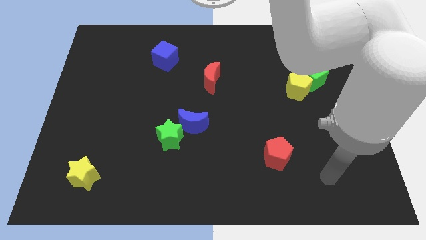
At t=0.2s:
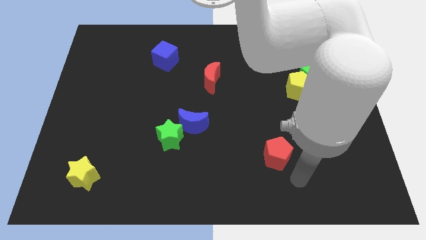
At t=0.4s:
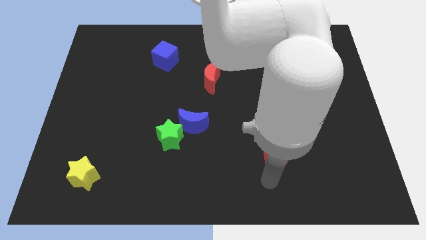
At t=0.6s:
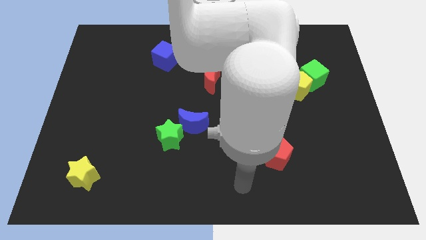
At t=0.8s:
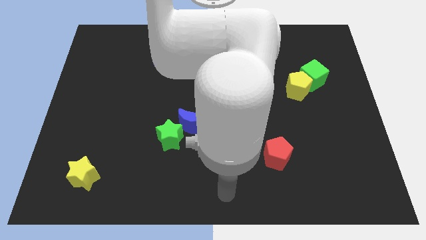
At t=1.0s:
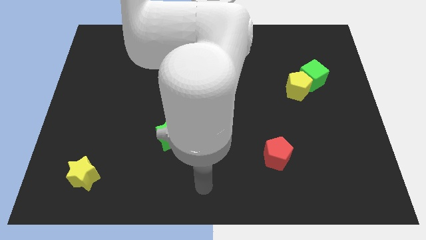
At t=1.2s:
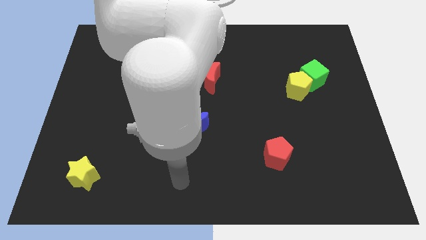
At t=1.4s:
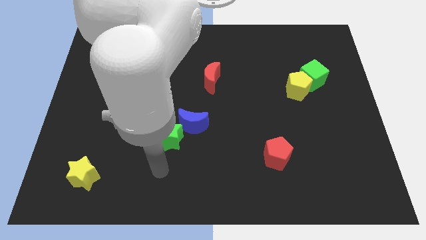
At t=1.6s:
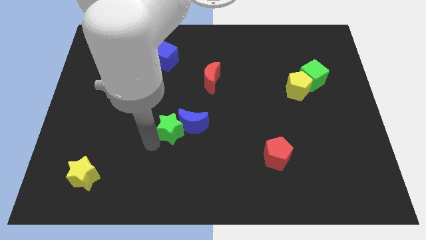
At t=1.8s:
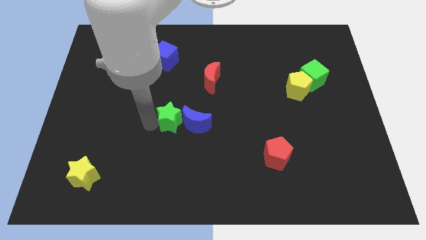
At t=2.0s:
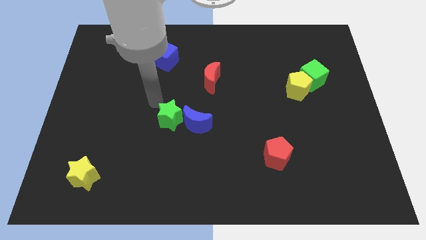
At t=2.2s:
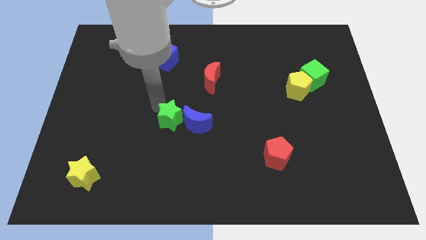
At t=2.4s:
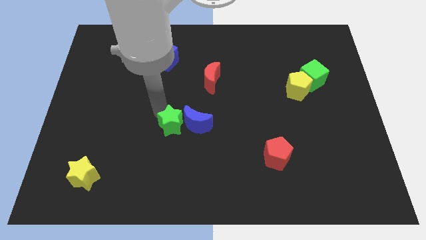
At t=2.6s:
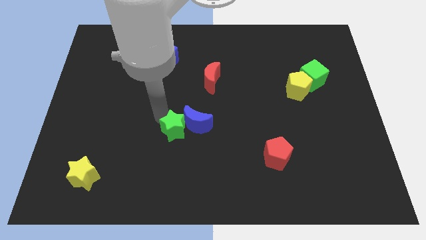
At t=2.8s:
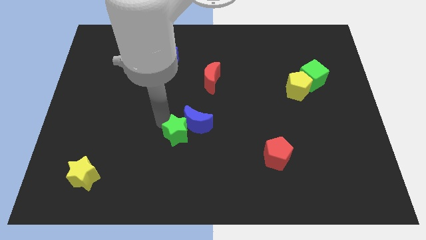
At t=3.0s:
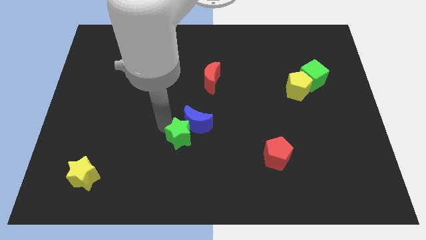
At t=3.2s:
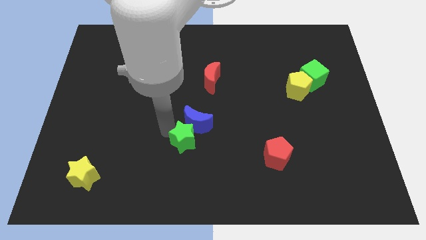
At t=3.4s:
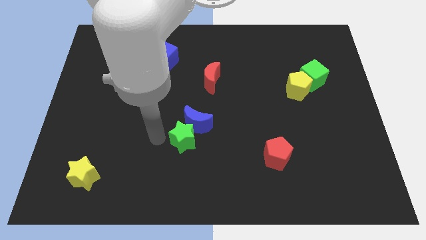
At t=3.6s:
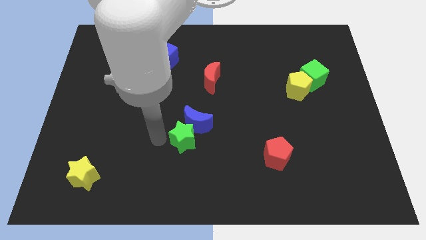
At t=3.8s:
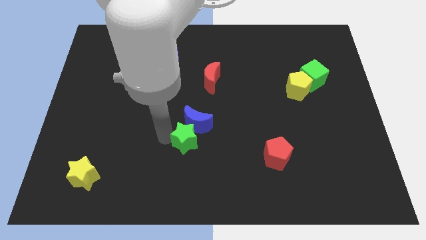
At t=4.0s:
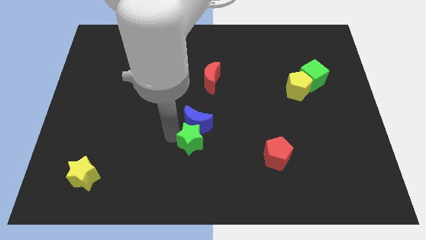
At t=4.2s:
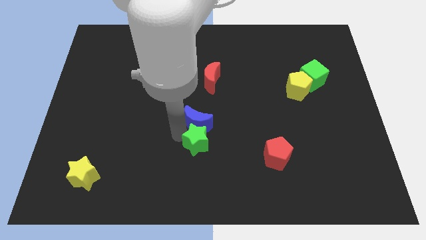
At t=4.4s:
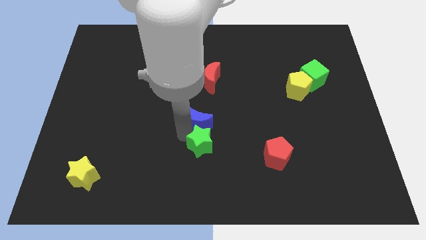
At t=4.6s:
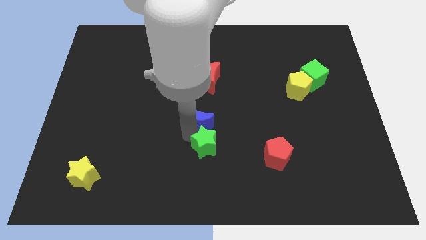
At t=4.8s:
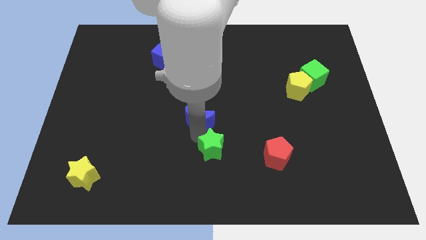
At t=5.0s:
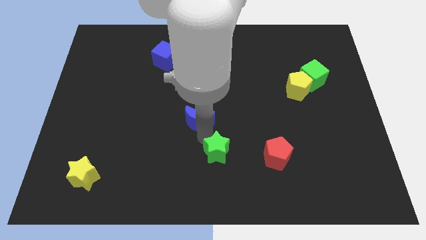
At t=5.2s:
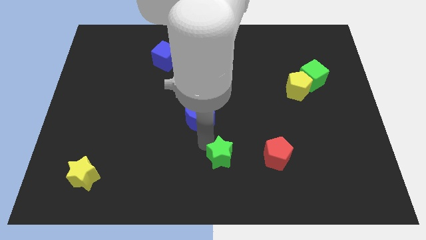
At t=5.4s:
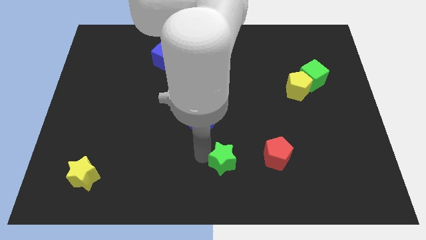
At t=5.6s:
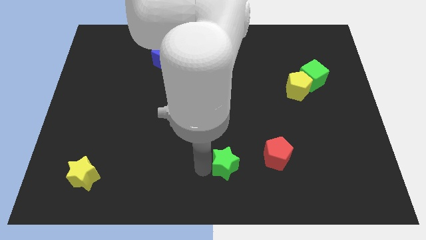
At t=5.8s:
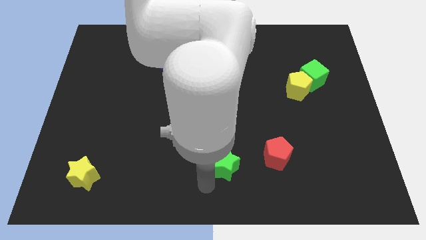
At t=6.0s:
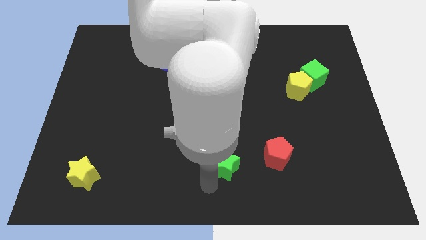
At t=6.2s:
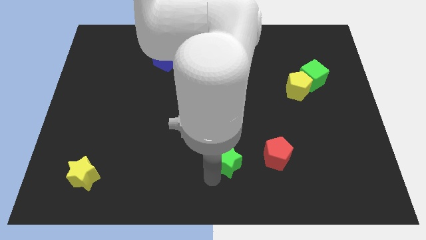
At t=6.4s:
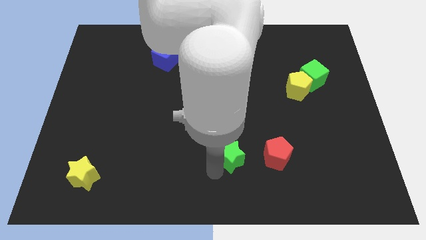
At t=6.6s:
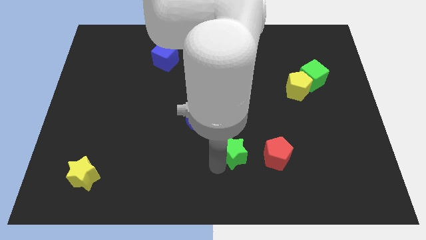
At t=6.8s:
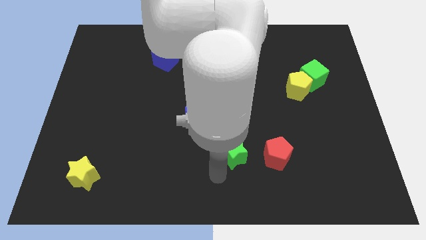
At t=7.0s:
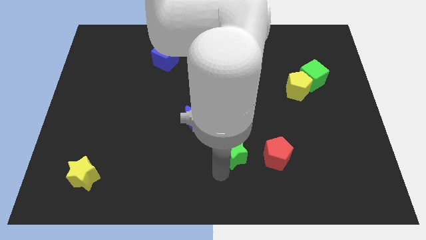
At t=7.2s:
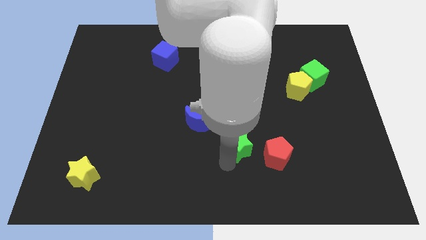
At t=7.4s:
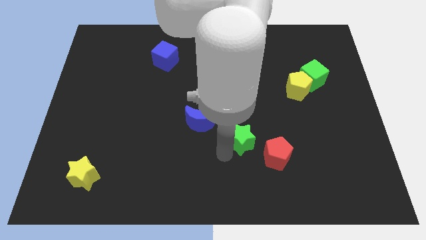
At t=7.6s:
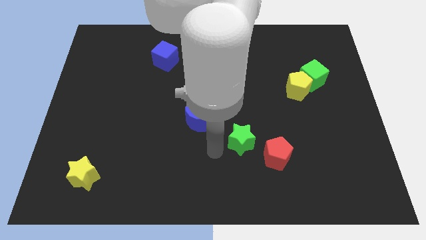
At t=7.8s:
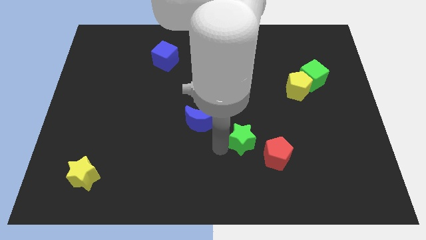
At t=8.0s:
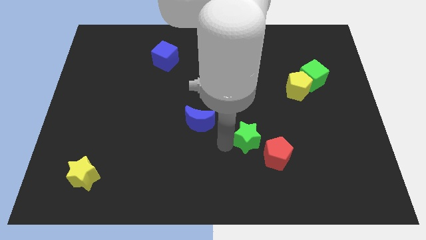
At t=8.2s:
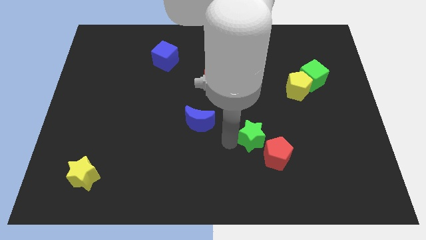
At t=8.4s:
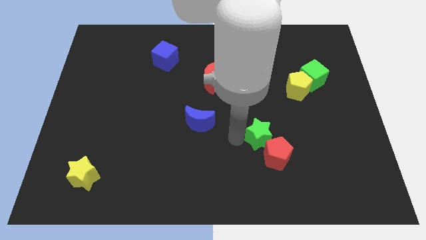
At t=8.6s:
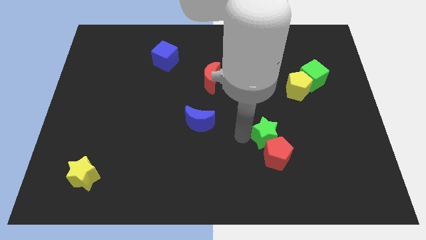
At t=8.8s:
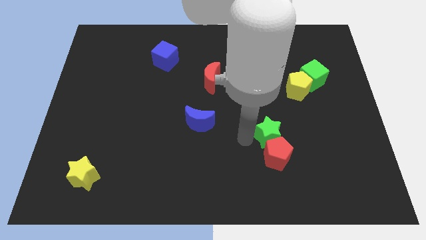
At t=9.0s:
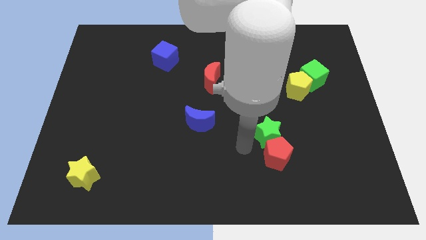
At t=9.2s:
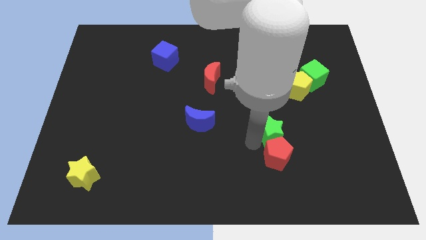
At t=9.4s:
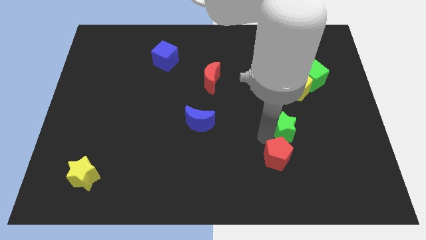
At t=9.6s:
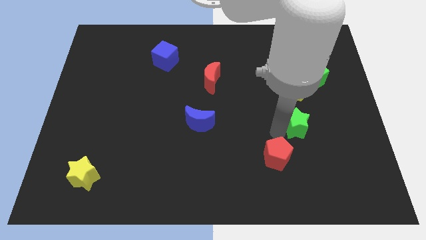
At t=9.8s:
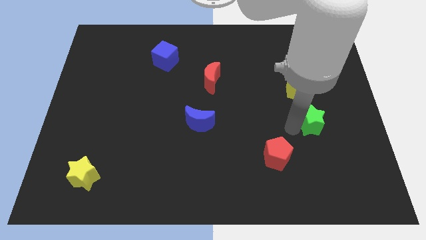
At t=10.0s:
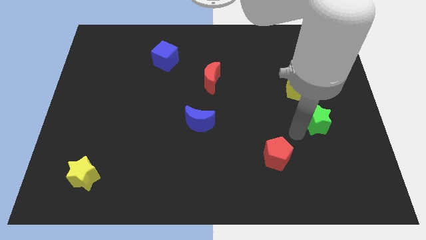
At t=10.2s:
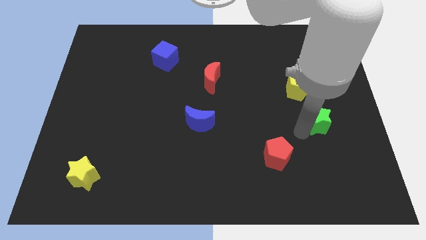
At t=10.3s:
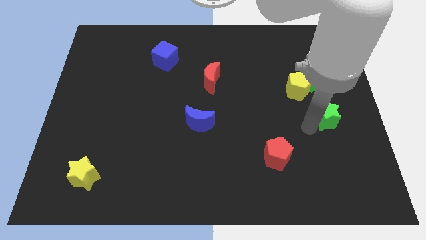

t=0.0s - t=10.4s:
move the green star to the right side of the board

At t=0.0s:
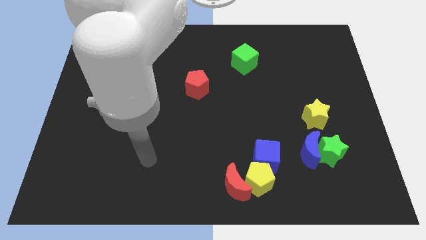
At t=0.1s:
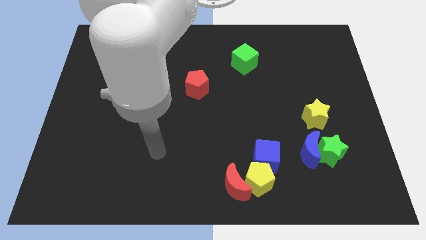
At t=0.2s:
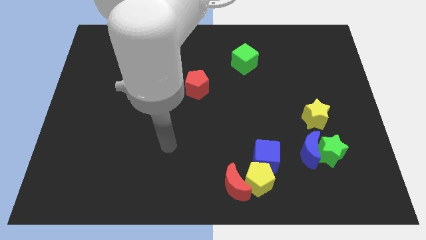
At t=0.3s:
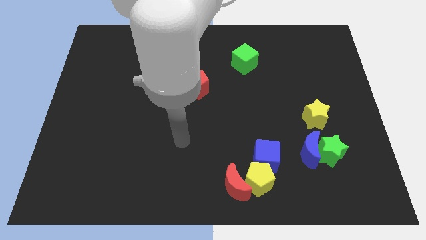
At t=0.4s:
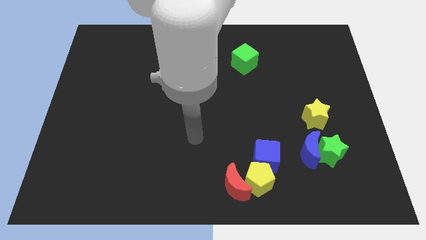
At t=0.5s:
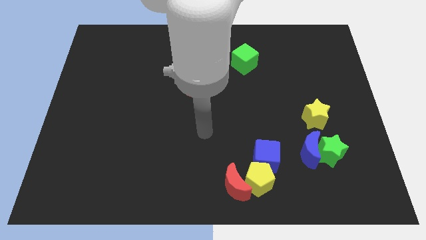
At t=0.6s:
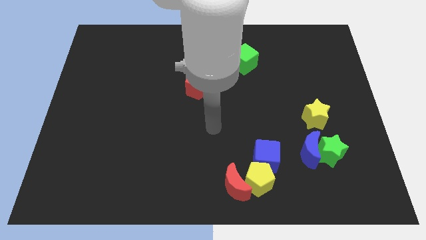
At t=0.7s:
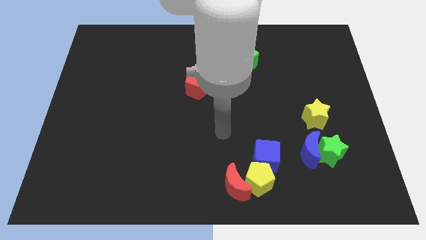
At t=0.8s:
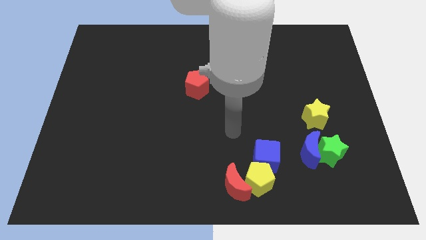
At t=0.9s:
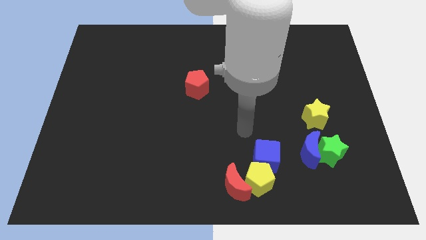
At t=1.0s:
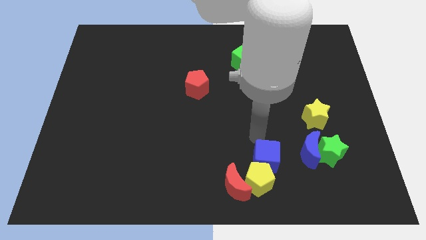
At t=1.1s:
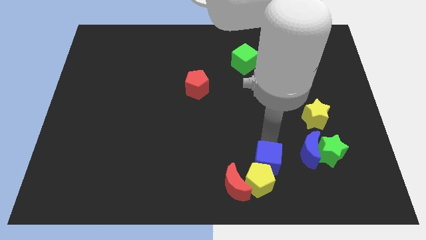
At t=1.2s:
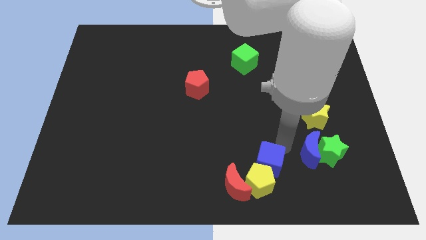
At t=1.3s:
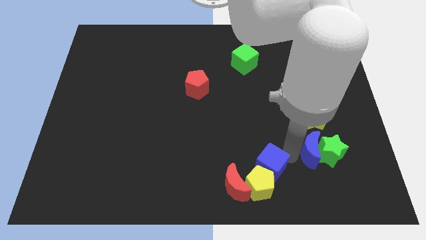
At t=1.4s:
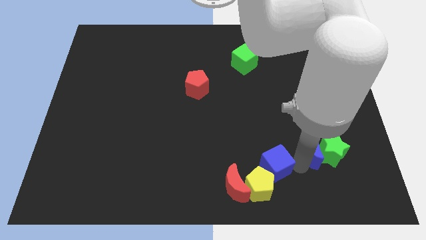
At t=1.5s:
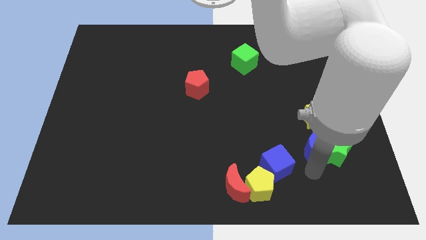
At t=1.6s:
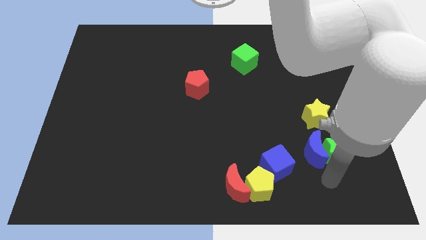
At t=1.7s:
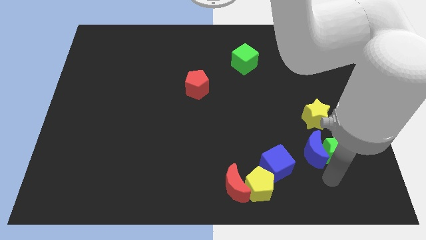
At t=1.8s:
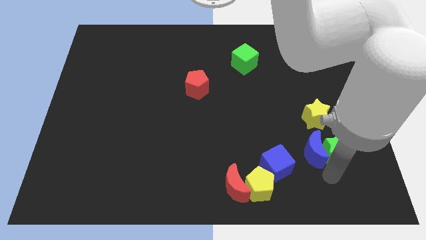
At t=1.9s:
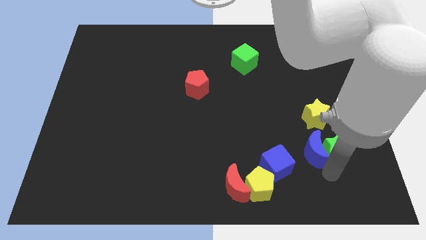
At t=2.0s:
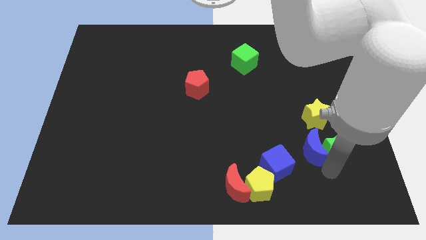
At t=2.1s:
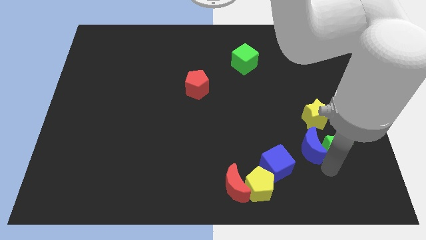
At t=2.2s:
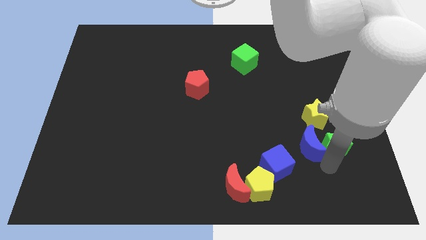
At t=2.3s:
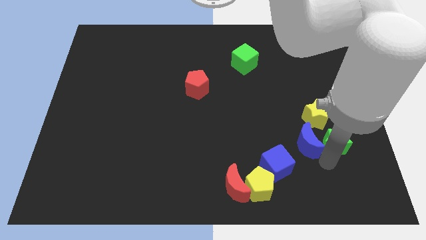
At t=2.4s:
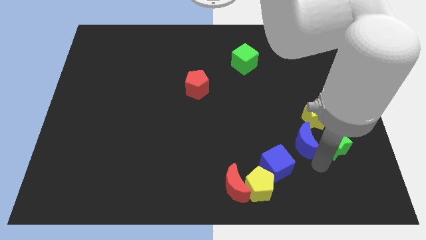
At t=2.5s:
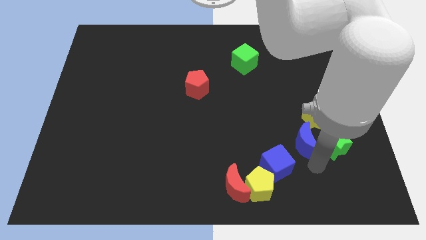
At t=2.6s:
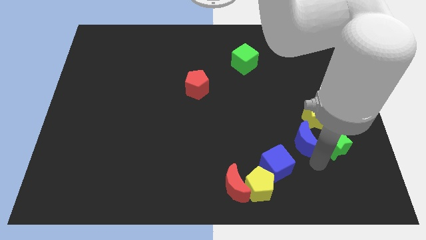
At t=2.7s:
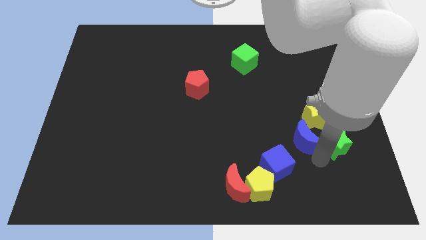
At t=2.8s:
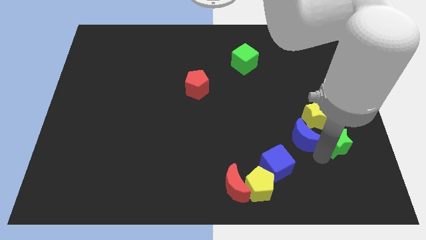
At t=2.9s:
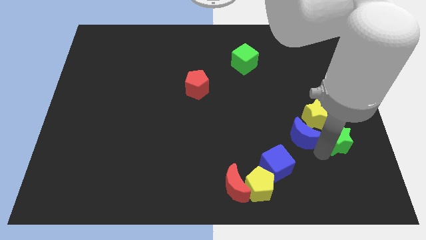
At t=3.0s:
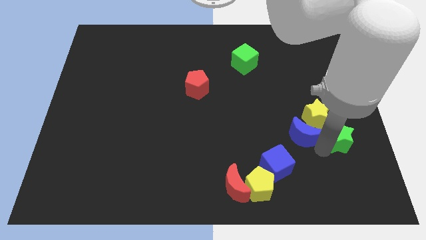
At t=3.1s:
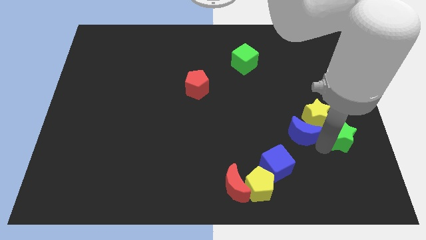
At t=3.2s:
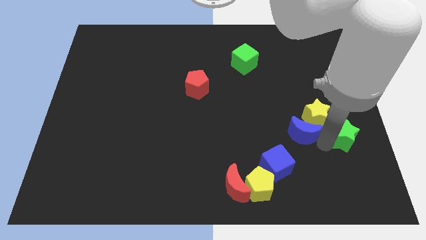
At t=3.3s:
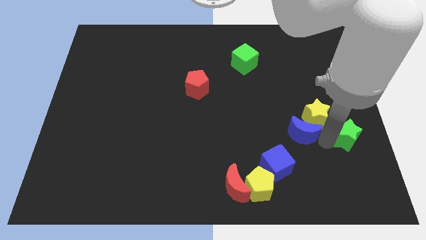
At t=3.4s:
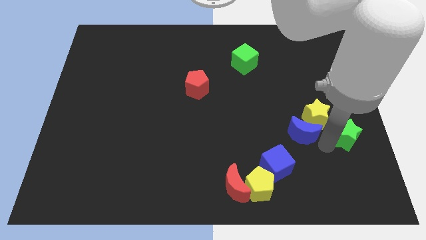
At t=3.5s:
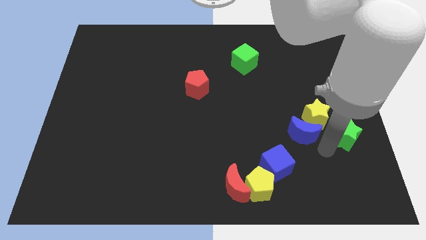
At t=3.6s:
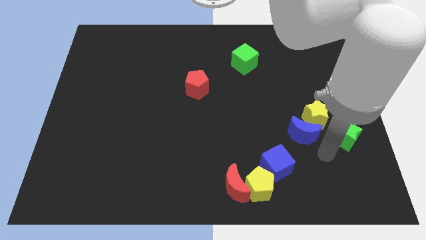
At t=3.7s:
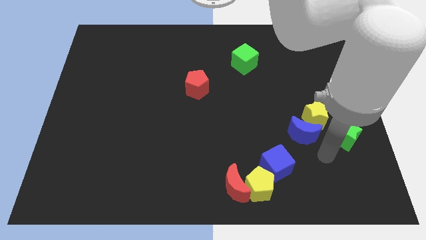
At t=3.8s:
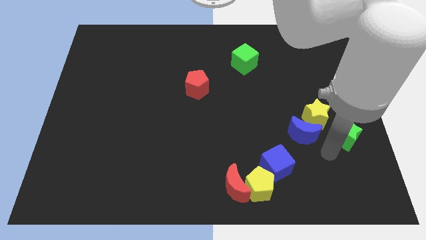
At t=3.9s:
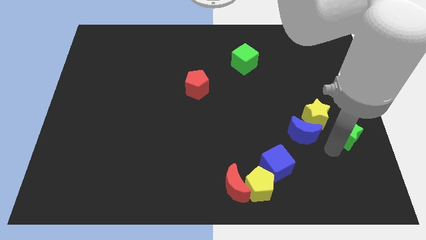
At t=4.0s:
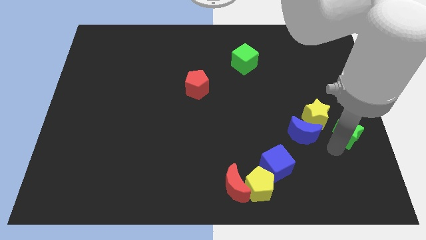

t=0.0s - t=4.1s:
push the green star to the center right
